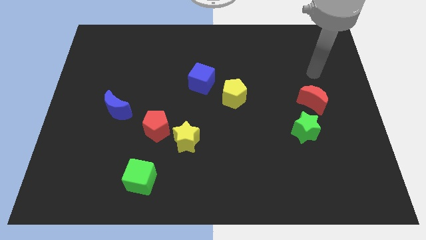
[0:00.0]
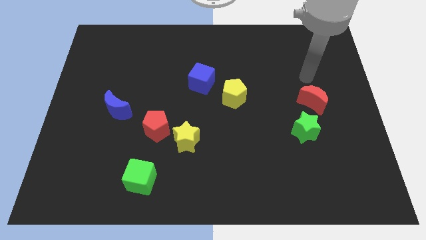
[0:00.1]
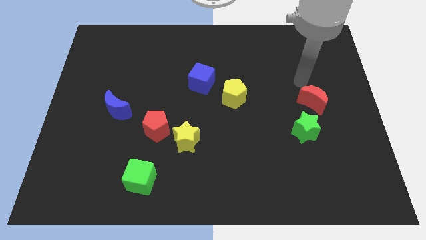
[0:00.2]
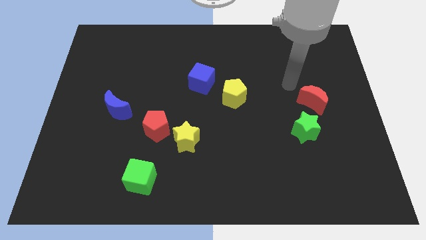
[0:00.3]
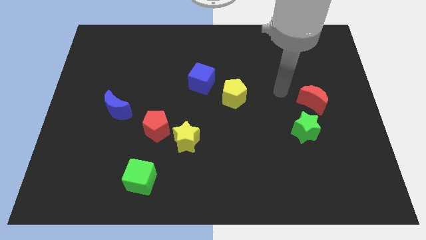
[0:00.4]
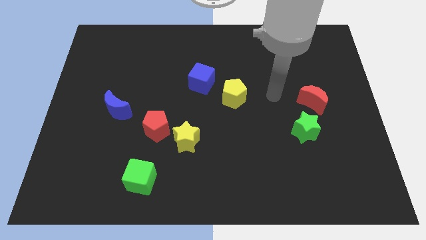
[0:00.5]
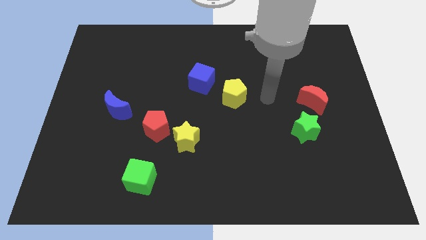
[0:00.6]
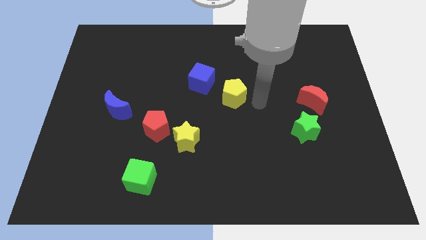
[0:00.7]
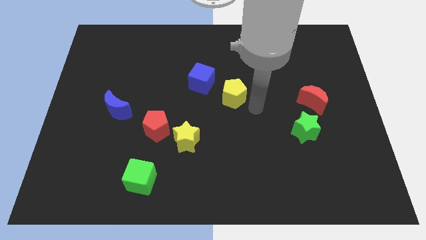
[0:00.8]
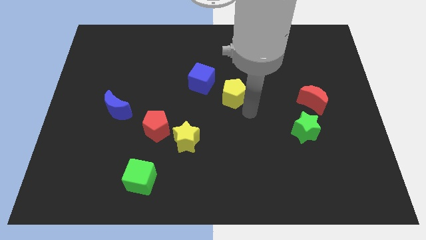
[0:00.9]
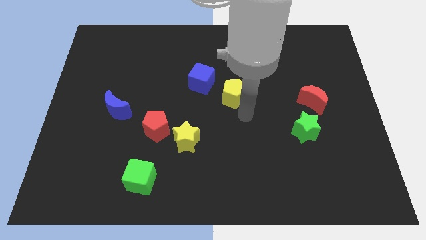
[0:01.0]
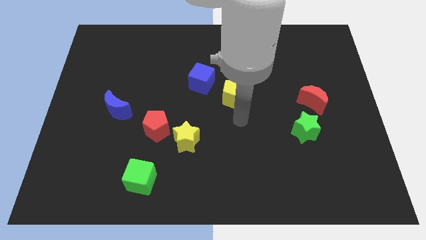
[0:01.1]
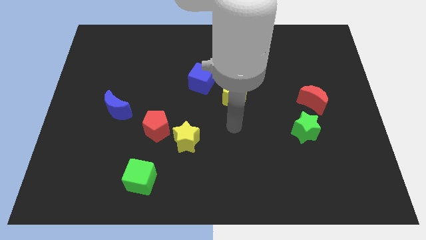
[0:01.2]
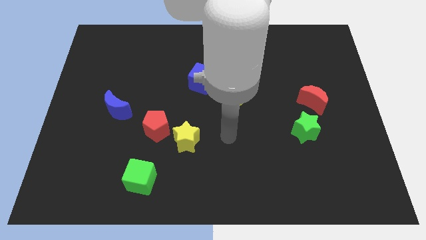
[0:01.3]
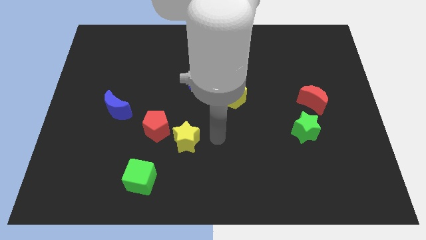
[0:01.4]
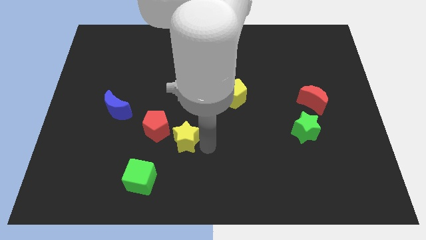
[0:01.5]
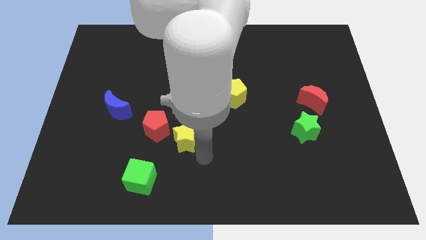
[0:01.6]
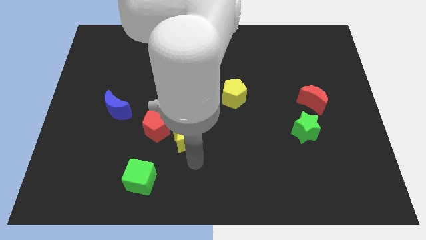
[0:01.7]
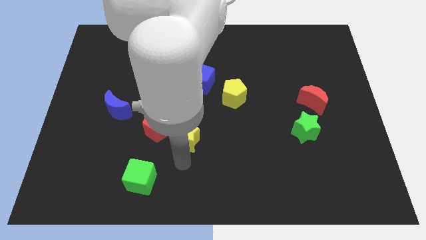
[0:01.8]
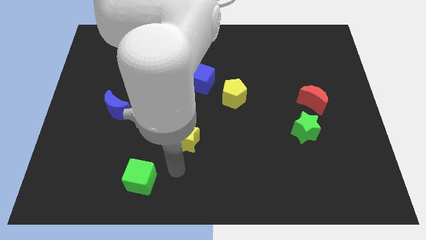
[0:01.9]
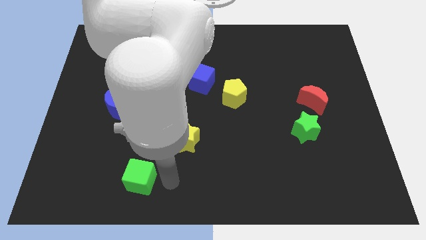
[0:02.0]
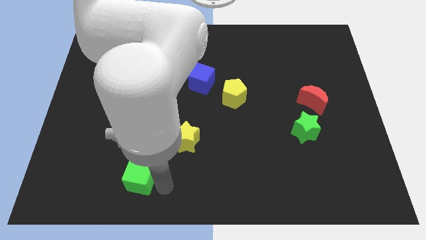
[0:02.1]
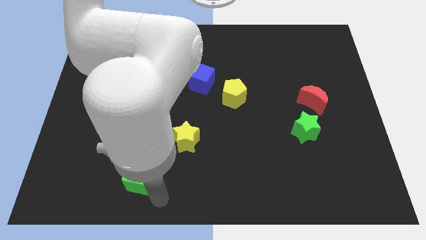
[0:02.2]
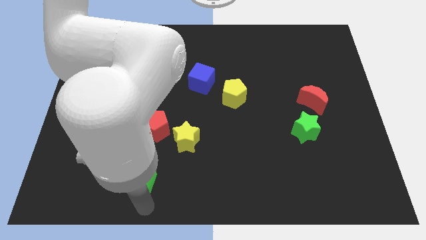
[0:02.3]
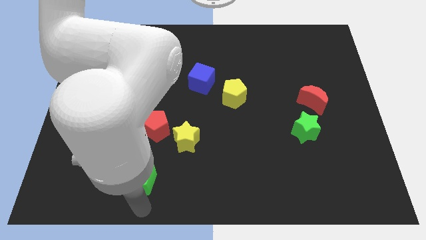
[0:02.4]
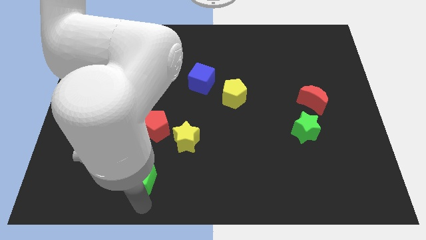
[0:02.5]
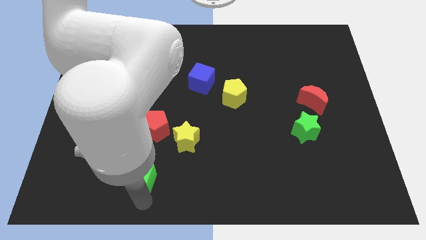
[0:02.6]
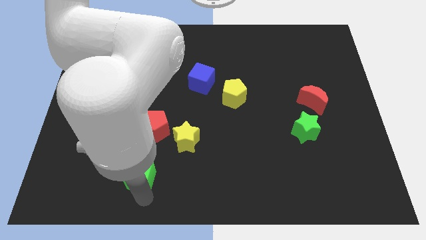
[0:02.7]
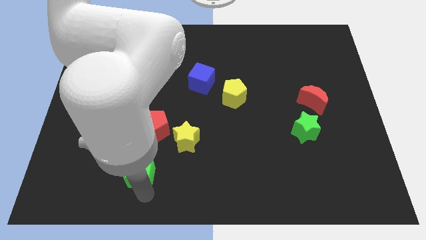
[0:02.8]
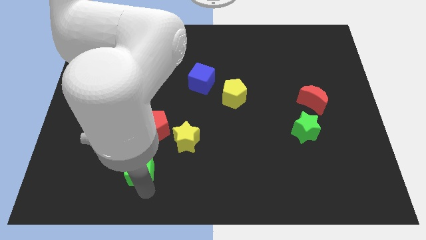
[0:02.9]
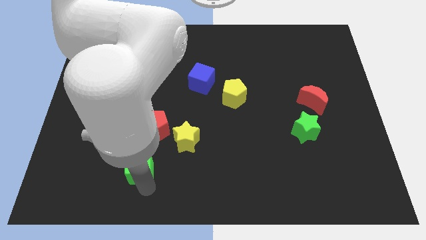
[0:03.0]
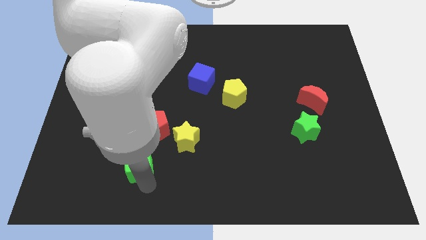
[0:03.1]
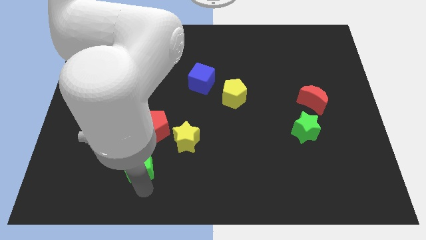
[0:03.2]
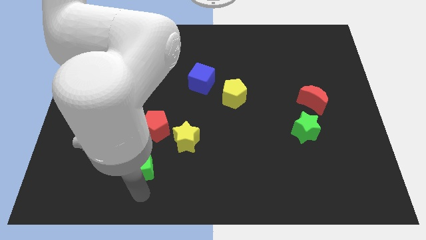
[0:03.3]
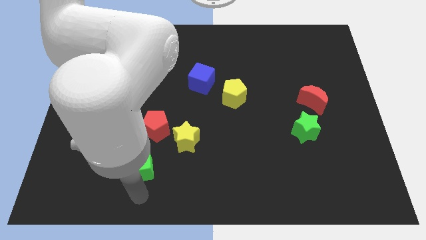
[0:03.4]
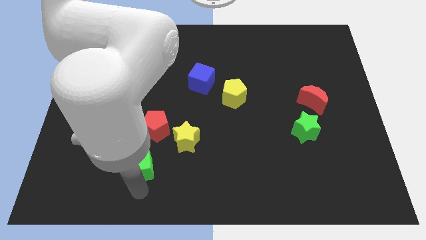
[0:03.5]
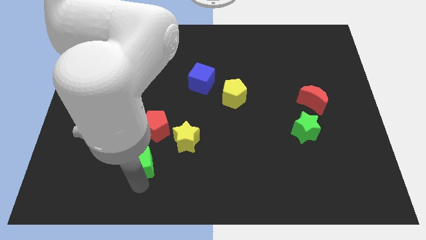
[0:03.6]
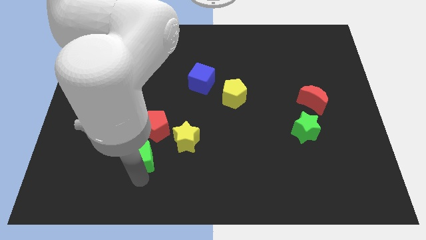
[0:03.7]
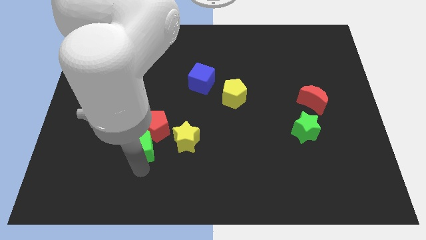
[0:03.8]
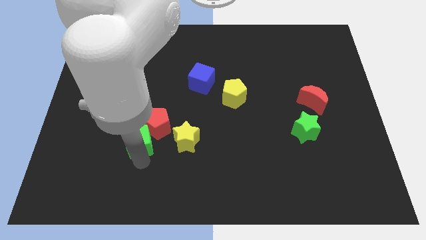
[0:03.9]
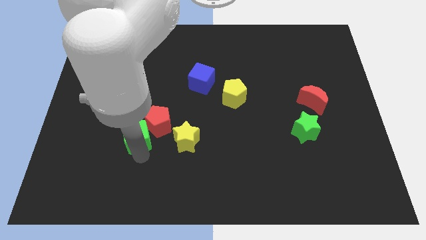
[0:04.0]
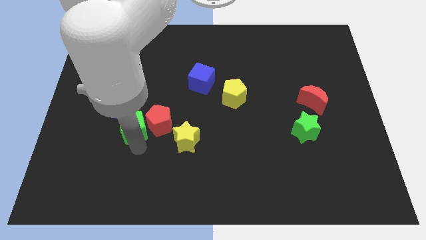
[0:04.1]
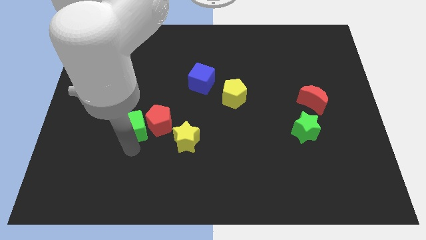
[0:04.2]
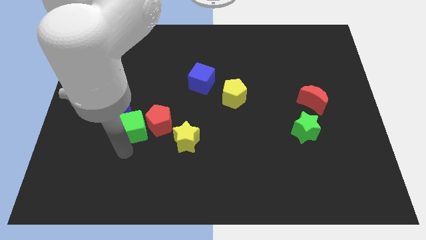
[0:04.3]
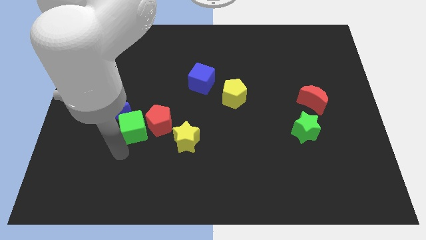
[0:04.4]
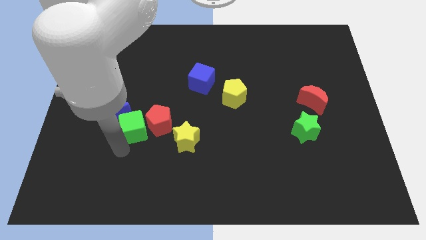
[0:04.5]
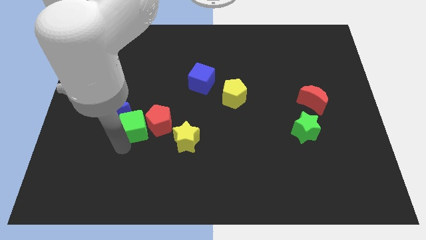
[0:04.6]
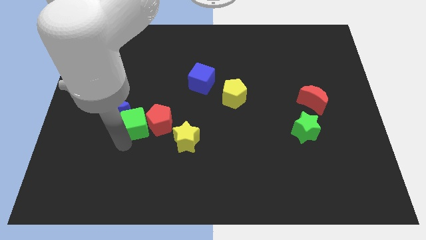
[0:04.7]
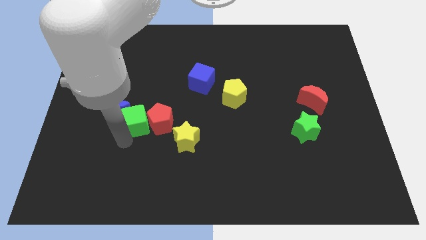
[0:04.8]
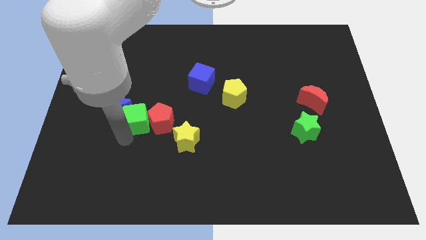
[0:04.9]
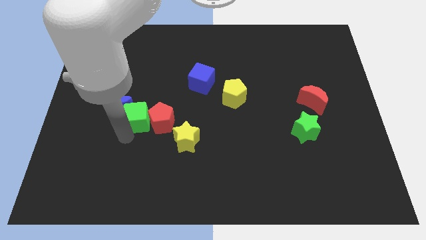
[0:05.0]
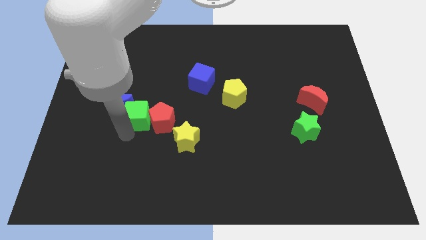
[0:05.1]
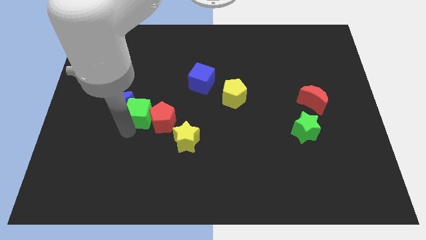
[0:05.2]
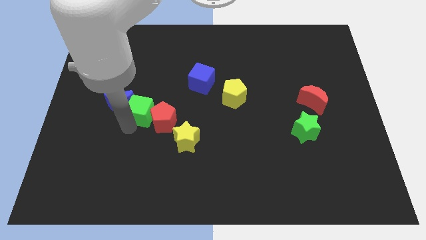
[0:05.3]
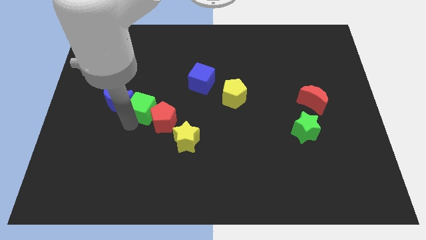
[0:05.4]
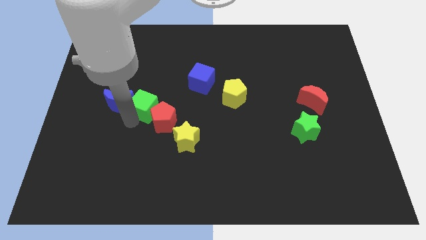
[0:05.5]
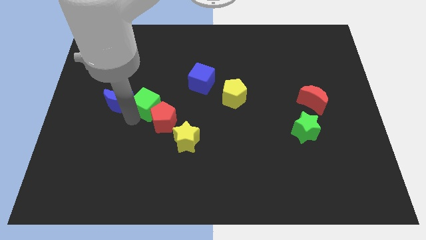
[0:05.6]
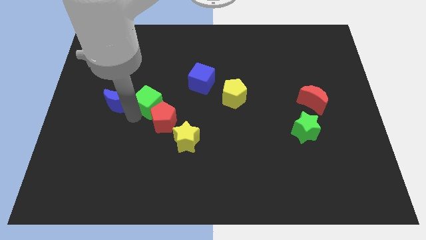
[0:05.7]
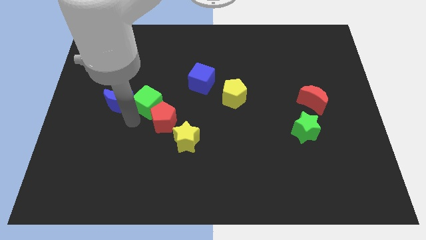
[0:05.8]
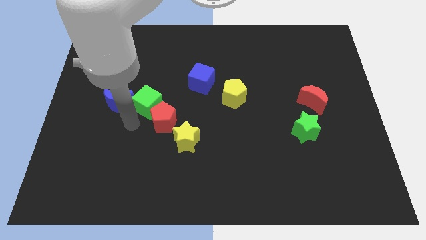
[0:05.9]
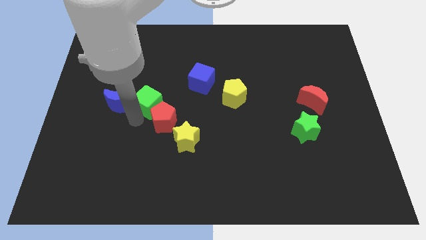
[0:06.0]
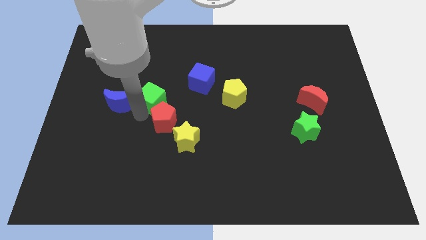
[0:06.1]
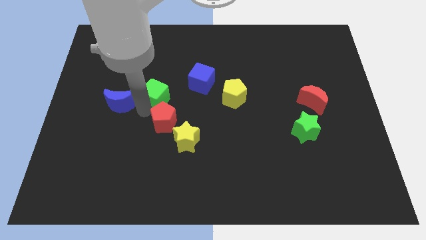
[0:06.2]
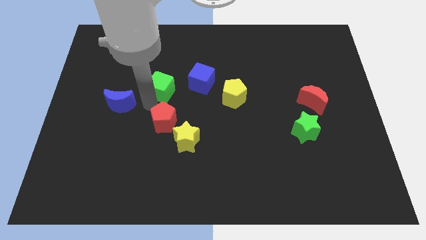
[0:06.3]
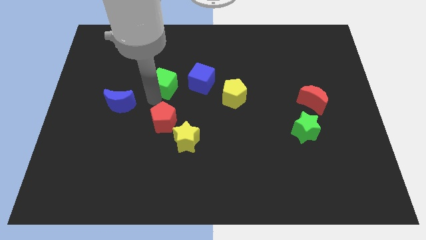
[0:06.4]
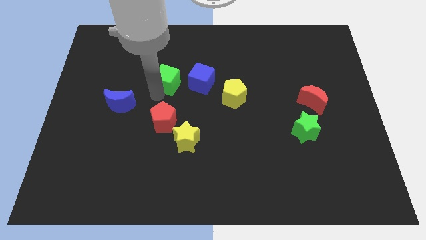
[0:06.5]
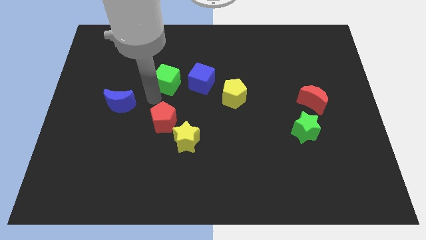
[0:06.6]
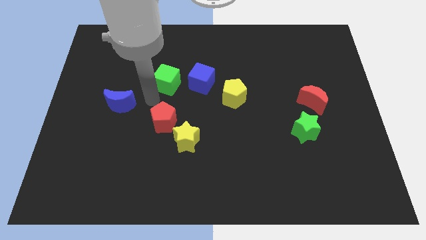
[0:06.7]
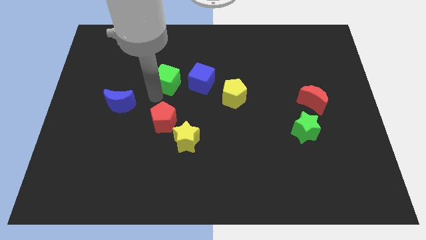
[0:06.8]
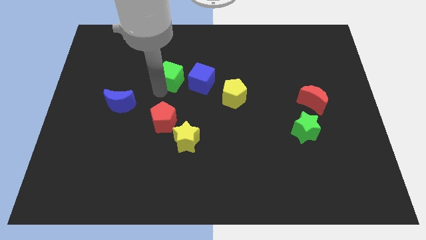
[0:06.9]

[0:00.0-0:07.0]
push the green cube to the top left side of the blue cube
